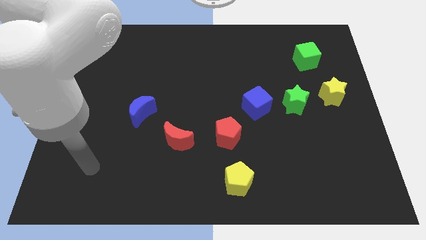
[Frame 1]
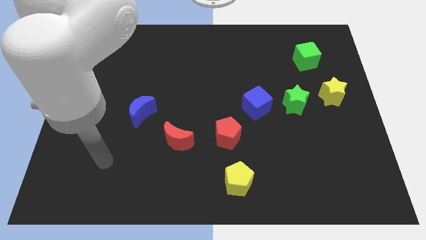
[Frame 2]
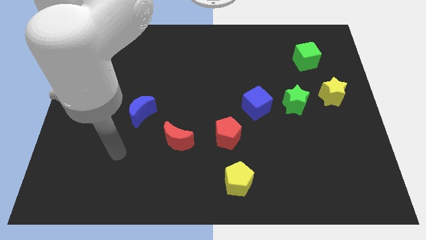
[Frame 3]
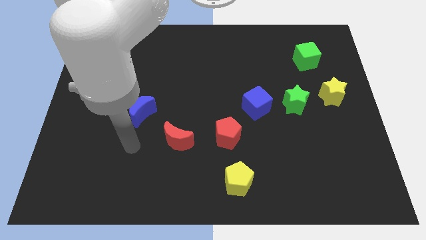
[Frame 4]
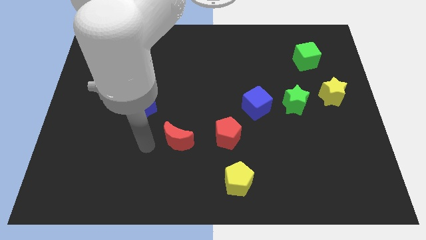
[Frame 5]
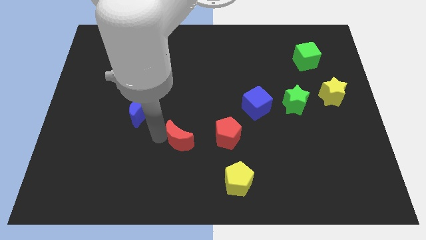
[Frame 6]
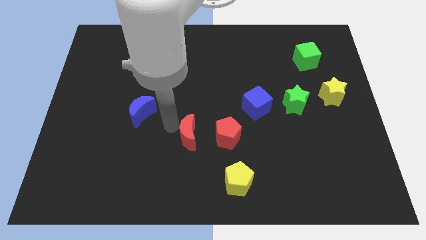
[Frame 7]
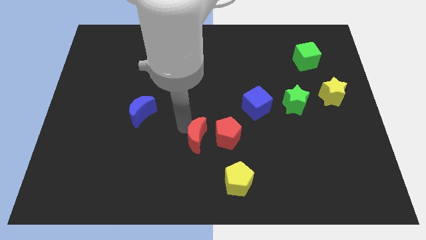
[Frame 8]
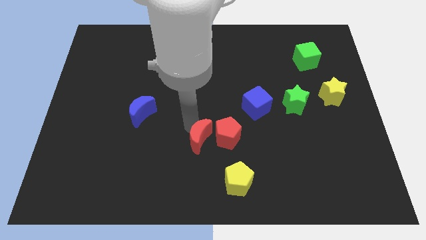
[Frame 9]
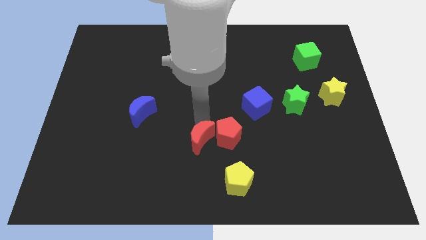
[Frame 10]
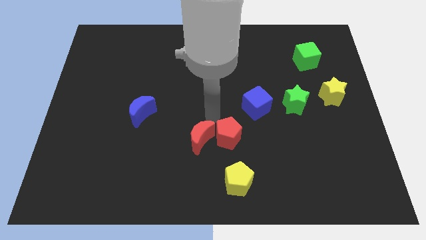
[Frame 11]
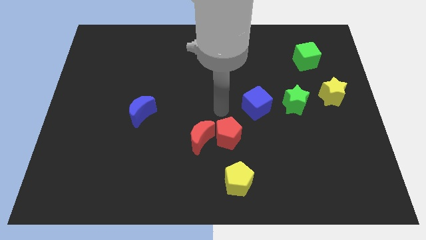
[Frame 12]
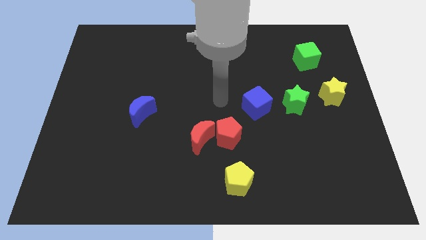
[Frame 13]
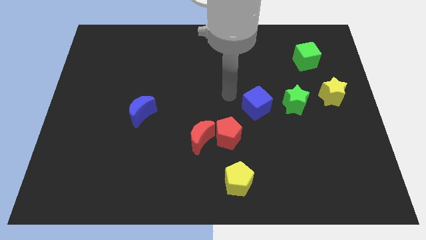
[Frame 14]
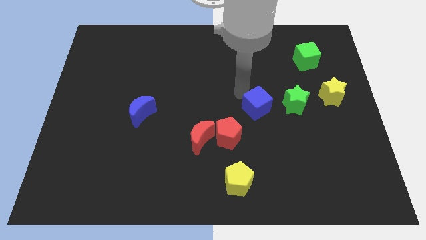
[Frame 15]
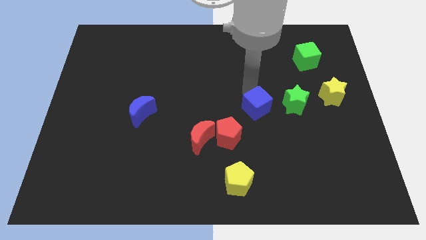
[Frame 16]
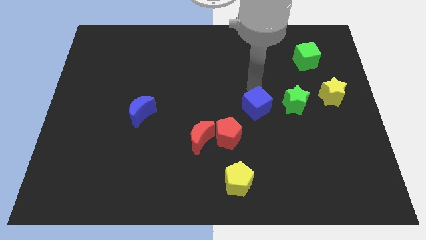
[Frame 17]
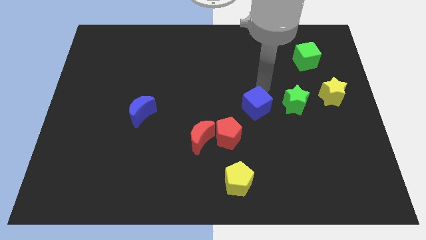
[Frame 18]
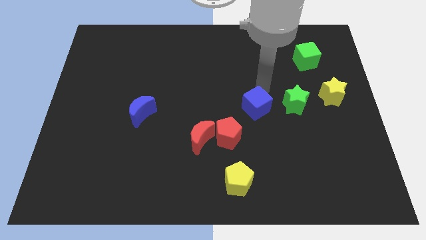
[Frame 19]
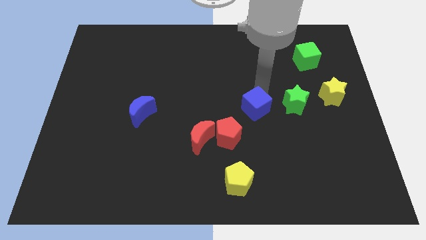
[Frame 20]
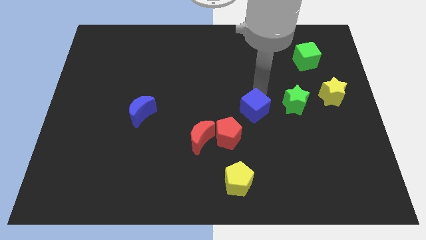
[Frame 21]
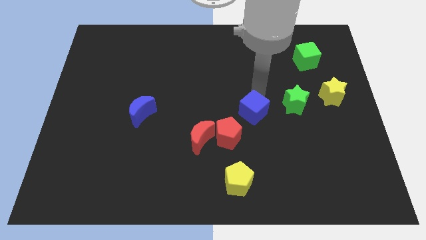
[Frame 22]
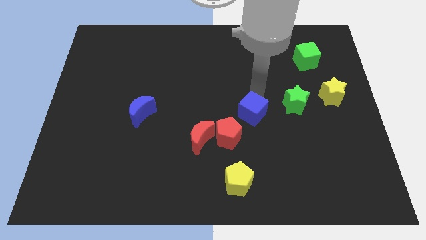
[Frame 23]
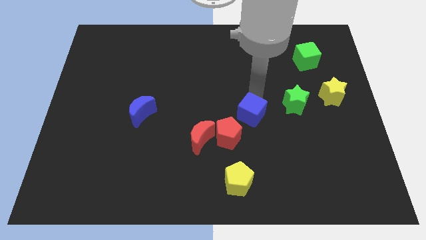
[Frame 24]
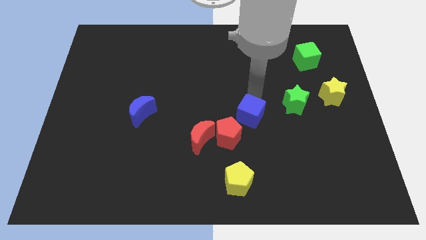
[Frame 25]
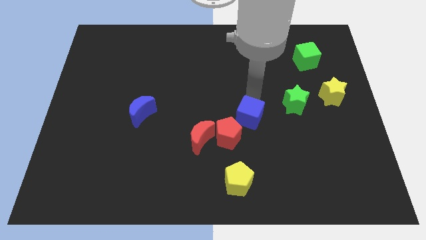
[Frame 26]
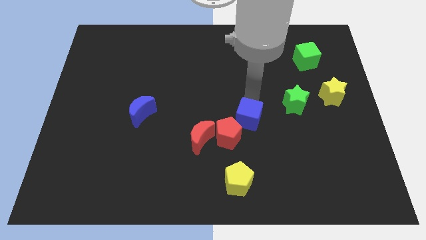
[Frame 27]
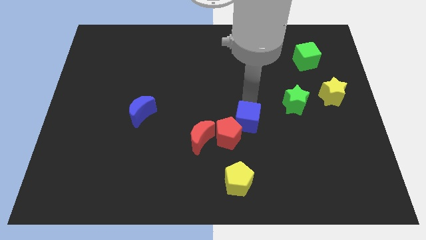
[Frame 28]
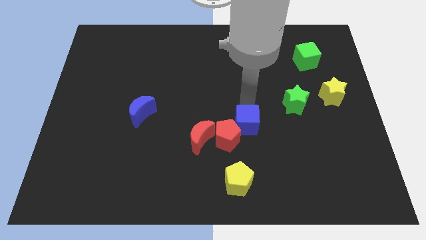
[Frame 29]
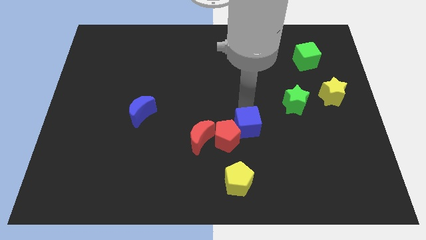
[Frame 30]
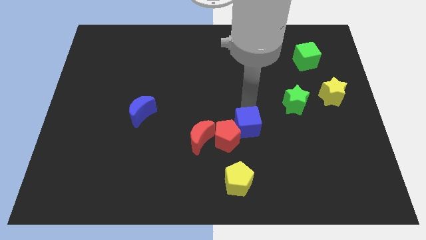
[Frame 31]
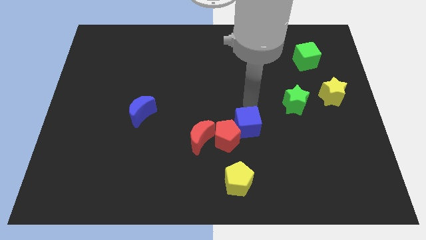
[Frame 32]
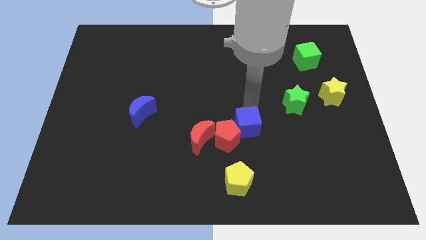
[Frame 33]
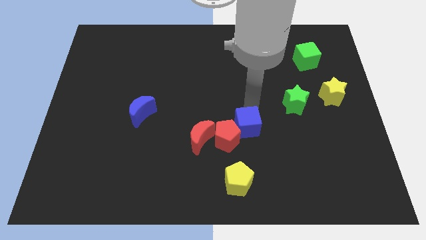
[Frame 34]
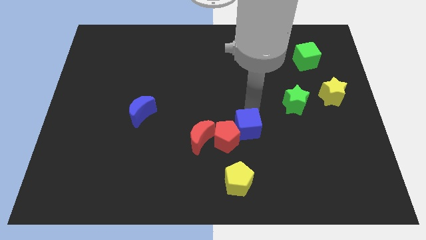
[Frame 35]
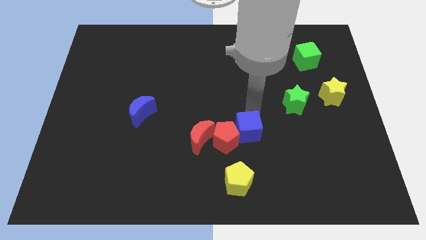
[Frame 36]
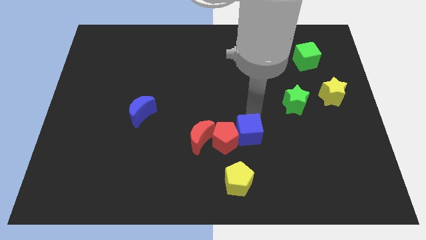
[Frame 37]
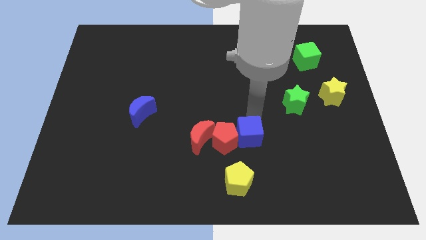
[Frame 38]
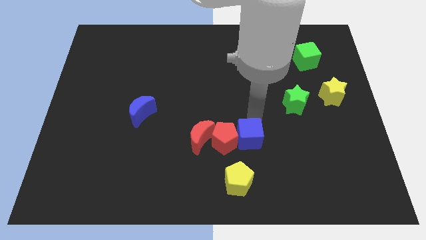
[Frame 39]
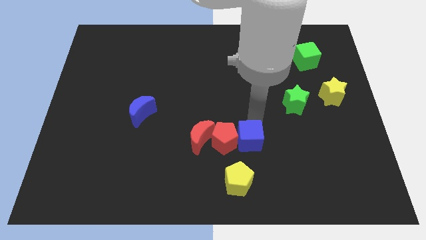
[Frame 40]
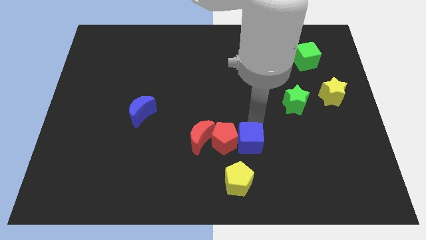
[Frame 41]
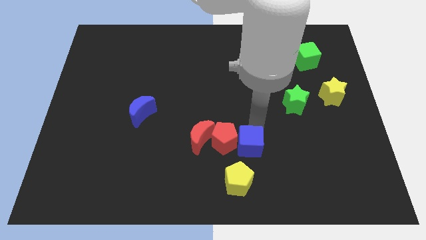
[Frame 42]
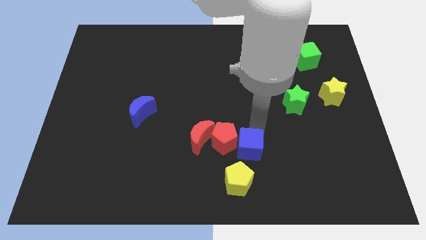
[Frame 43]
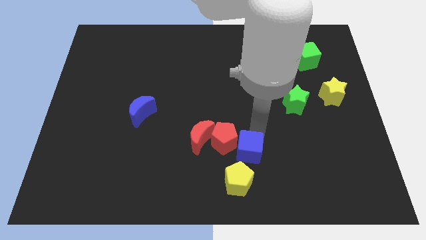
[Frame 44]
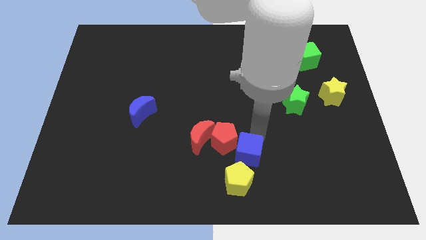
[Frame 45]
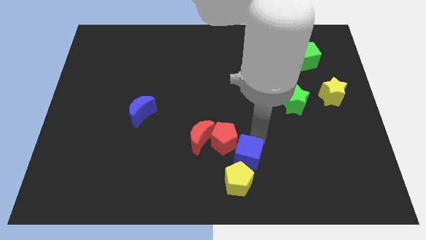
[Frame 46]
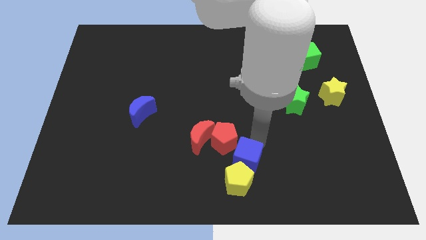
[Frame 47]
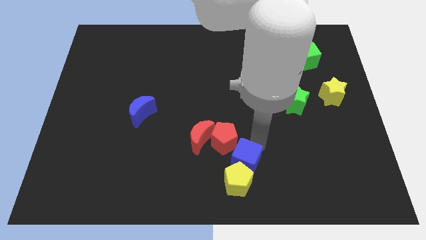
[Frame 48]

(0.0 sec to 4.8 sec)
push the blue cube to the bottom side

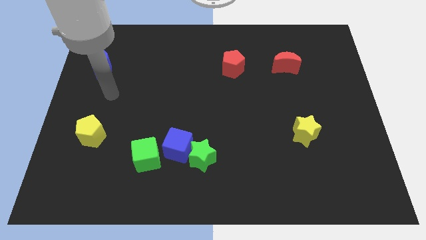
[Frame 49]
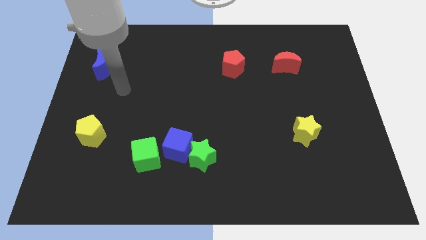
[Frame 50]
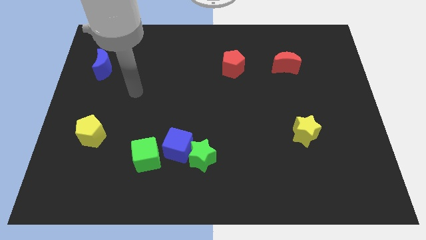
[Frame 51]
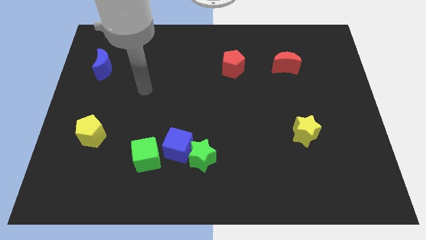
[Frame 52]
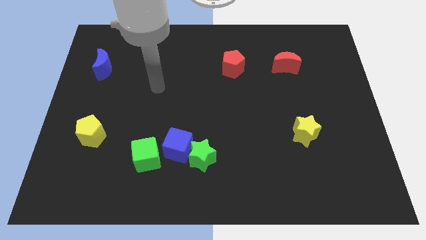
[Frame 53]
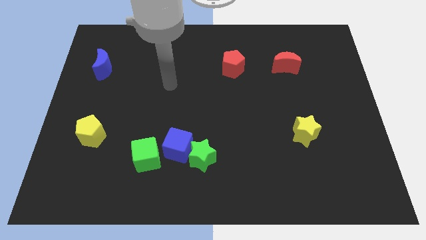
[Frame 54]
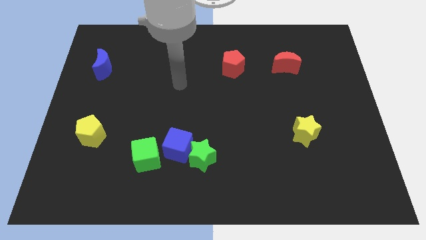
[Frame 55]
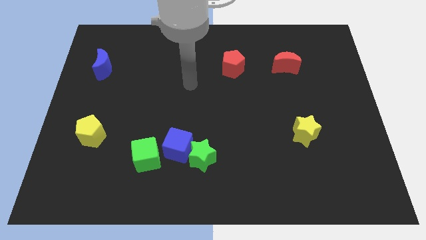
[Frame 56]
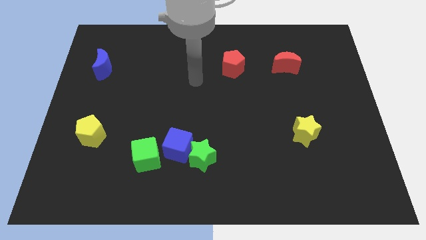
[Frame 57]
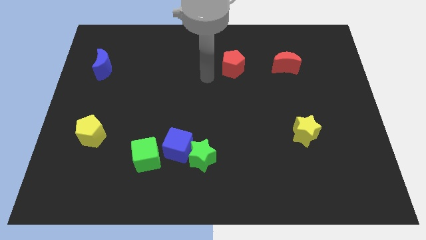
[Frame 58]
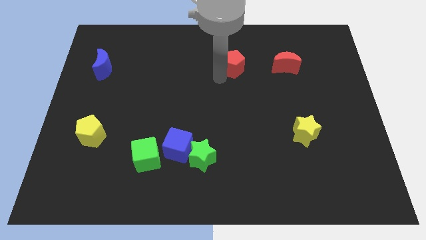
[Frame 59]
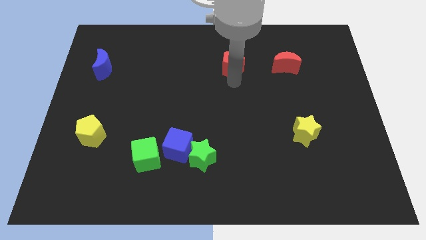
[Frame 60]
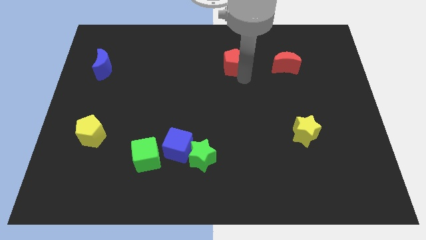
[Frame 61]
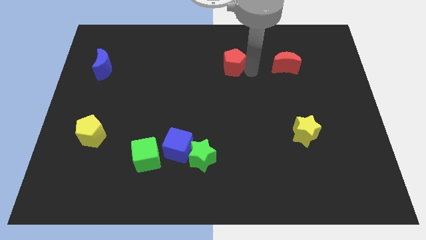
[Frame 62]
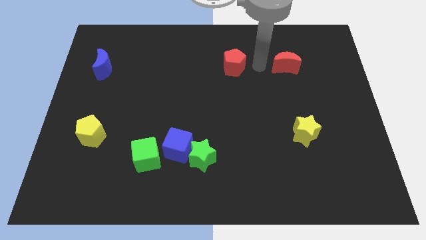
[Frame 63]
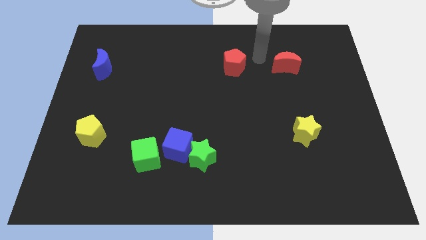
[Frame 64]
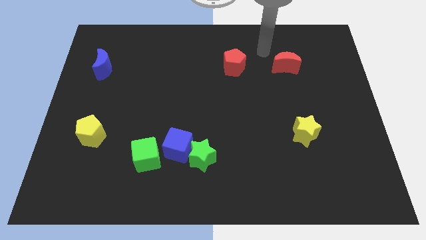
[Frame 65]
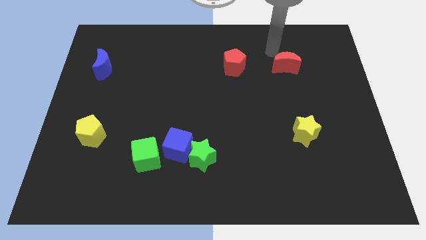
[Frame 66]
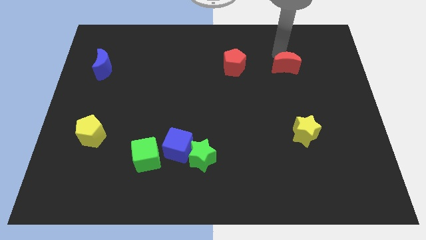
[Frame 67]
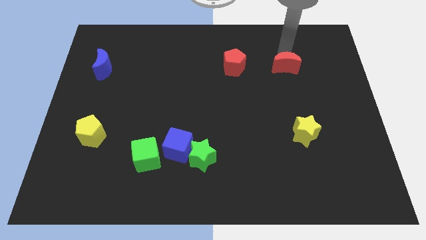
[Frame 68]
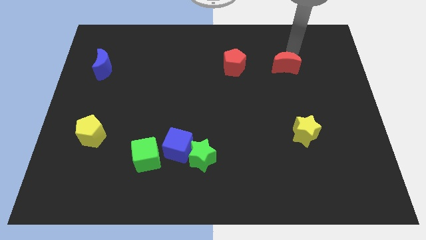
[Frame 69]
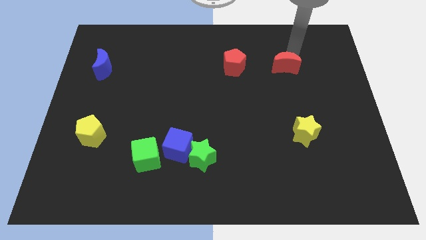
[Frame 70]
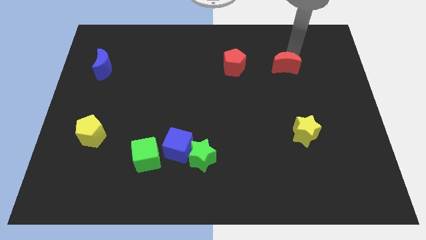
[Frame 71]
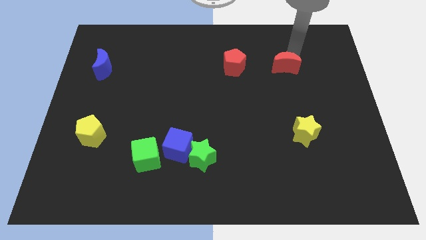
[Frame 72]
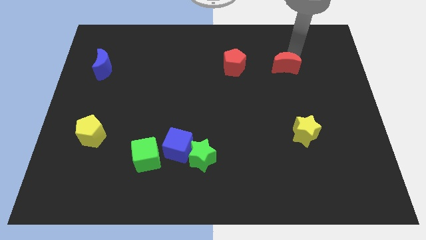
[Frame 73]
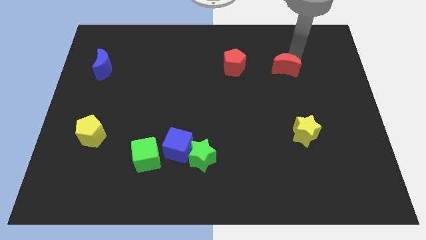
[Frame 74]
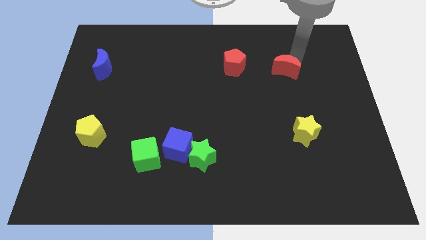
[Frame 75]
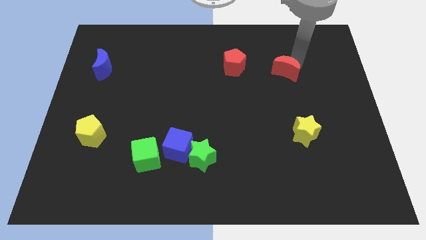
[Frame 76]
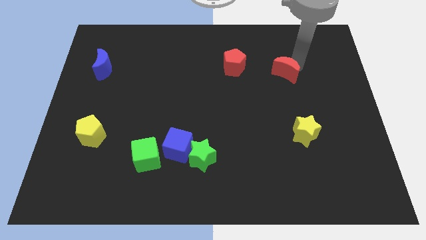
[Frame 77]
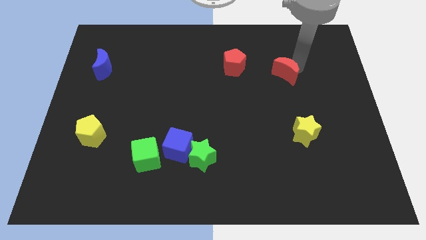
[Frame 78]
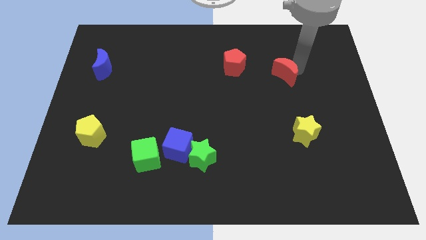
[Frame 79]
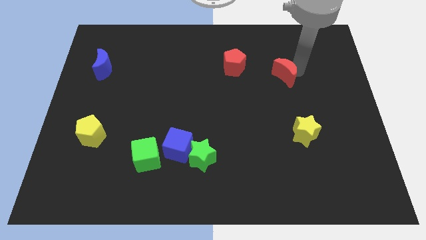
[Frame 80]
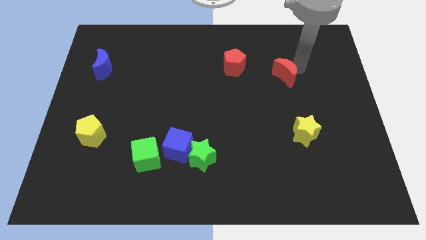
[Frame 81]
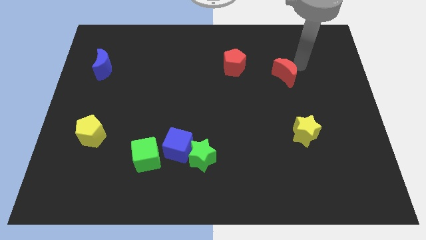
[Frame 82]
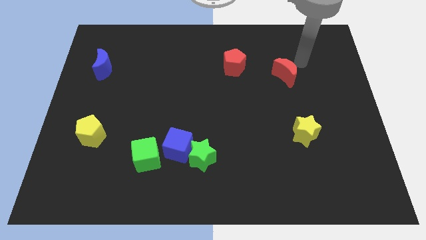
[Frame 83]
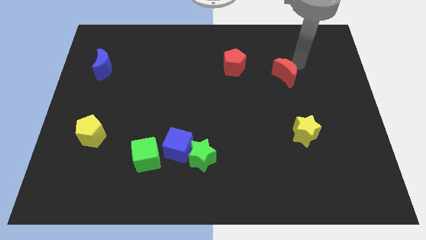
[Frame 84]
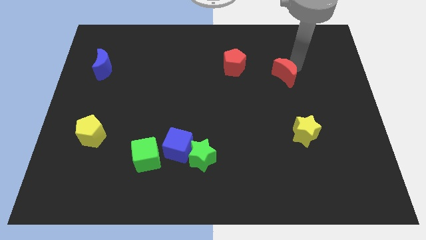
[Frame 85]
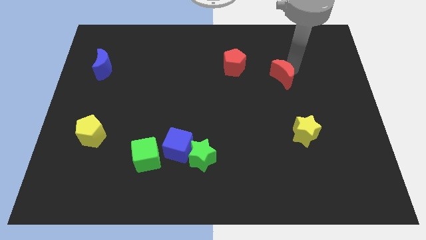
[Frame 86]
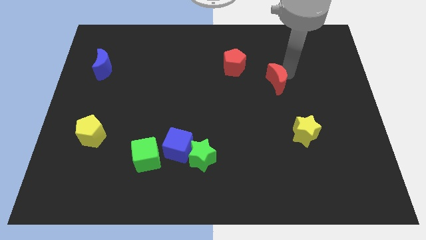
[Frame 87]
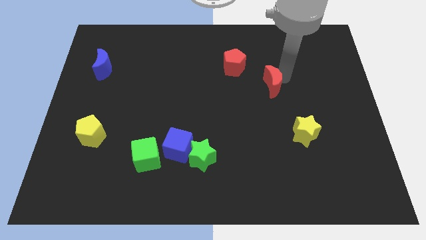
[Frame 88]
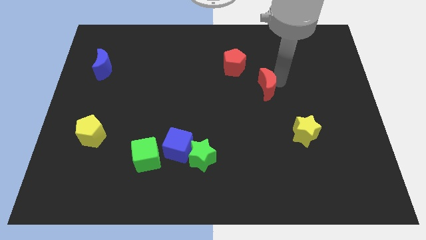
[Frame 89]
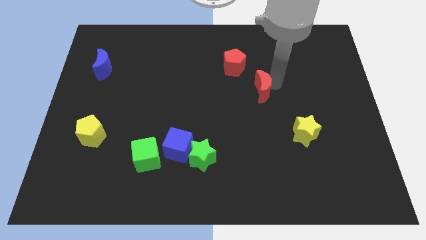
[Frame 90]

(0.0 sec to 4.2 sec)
push the red moon to the middle
